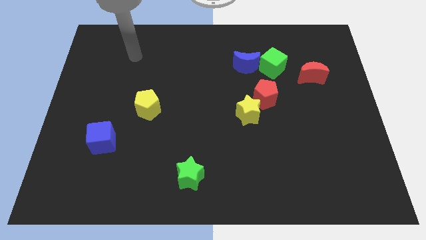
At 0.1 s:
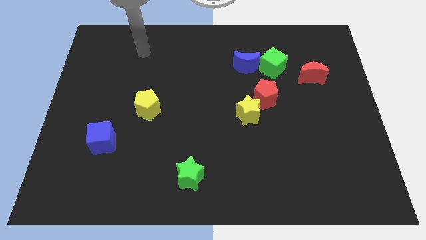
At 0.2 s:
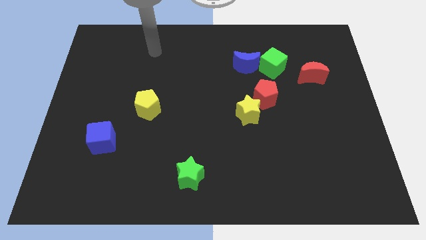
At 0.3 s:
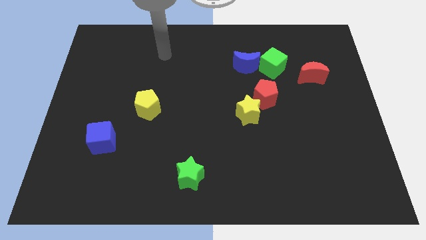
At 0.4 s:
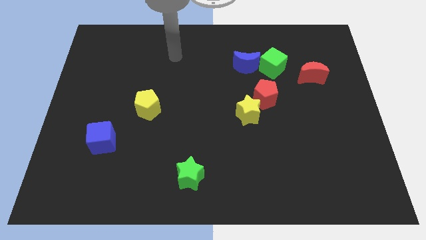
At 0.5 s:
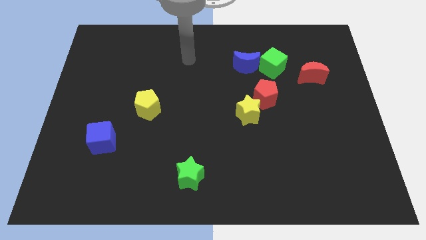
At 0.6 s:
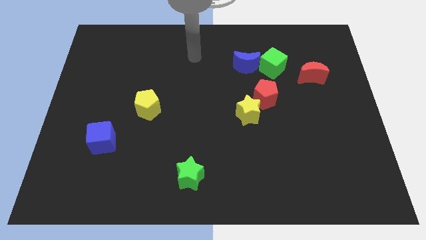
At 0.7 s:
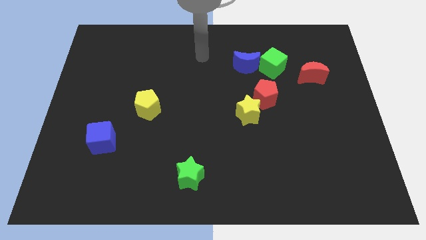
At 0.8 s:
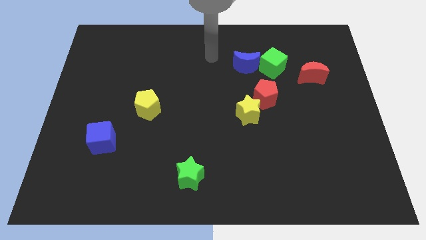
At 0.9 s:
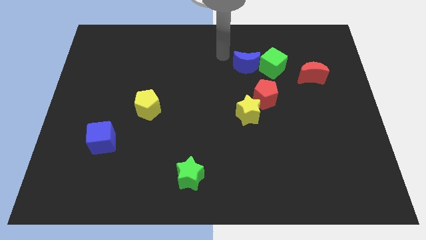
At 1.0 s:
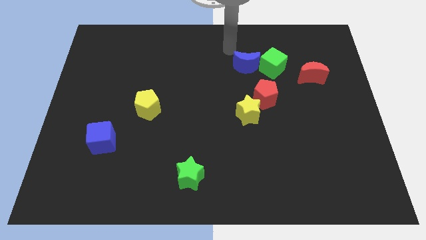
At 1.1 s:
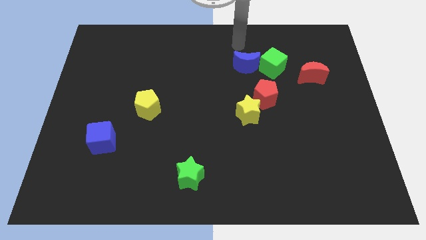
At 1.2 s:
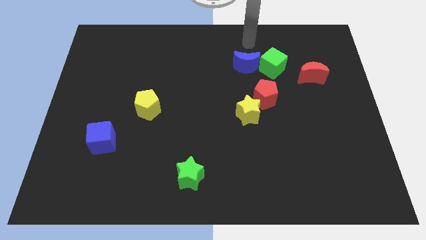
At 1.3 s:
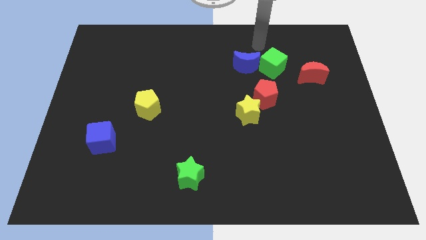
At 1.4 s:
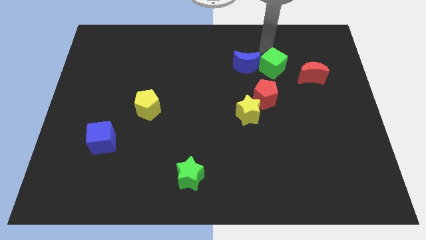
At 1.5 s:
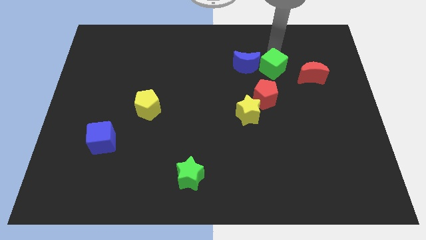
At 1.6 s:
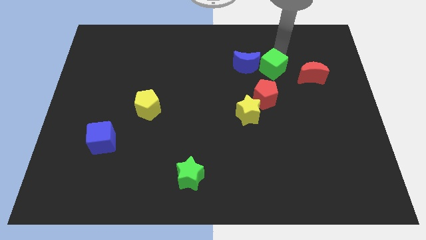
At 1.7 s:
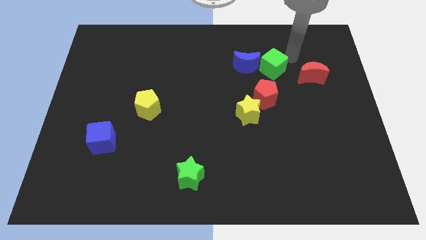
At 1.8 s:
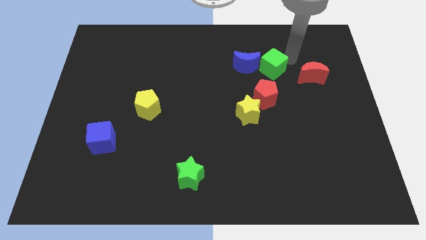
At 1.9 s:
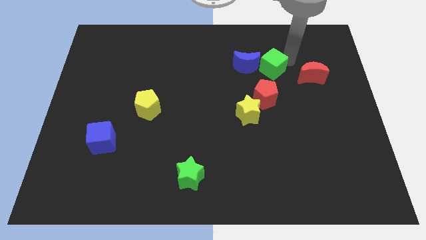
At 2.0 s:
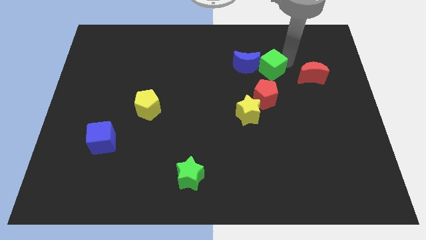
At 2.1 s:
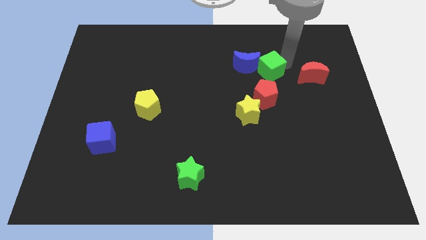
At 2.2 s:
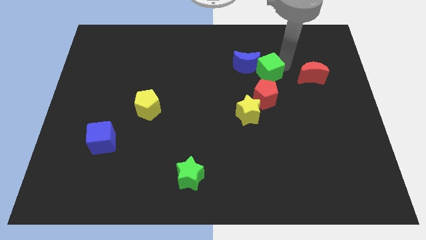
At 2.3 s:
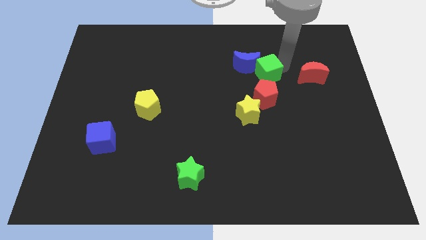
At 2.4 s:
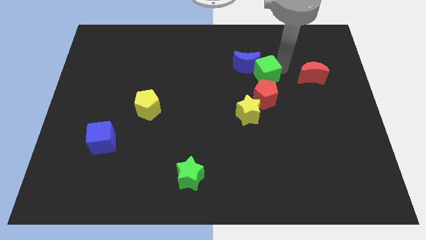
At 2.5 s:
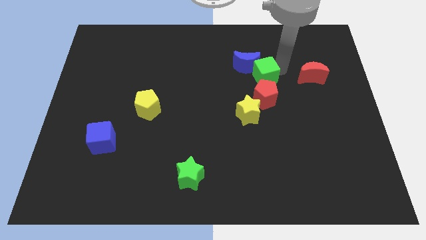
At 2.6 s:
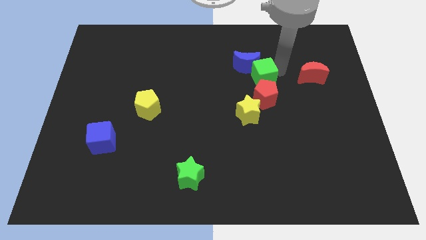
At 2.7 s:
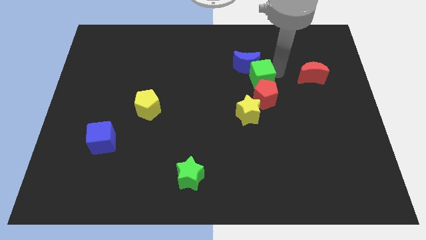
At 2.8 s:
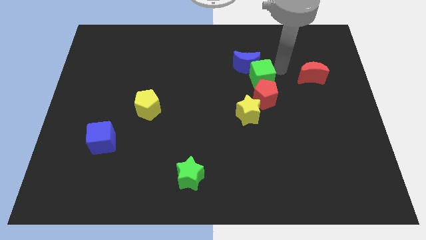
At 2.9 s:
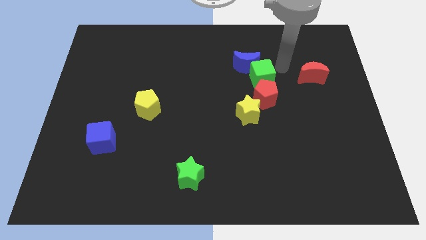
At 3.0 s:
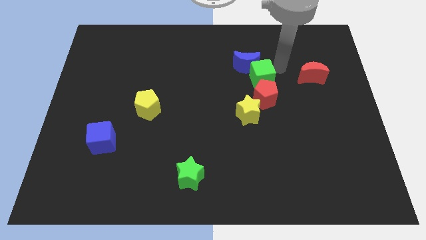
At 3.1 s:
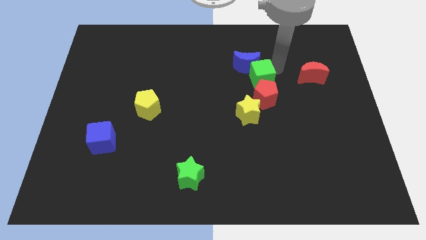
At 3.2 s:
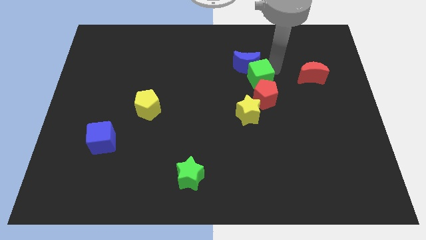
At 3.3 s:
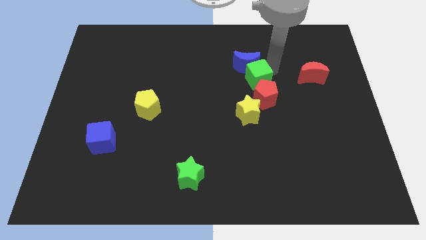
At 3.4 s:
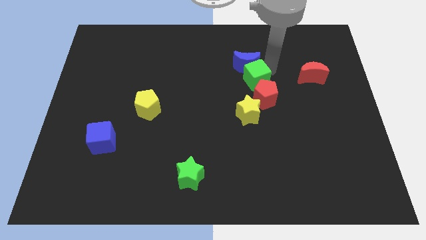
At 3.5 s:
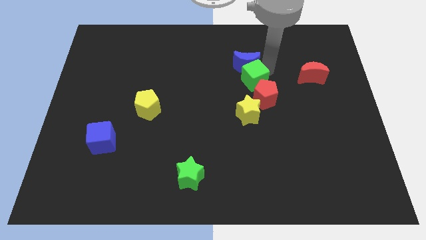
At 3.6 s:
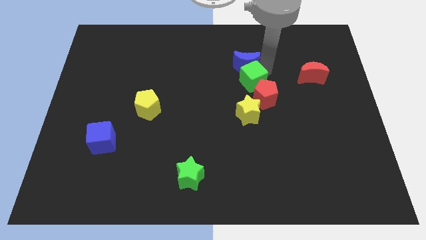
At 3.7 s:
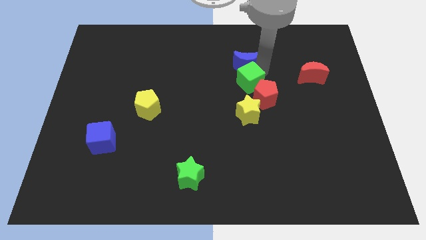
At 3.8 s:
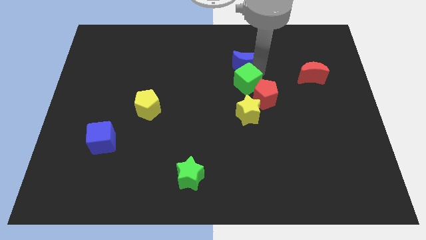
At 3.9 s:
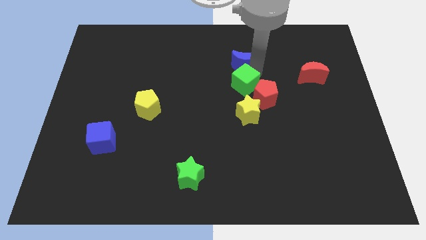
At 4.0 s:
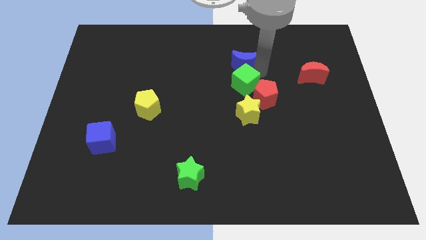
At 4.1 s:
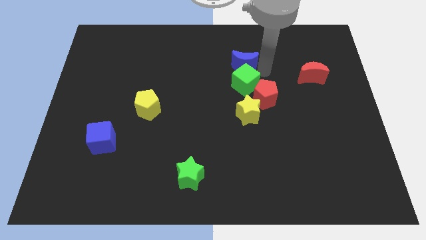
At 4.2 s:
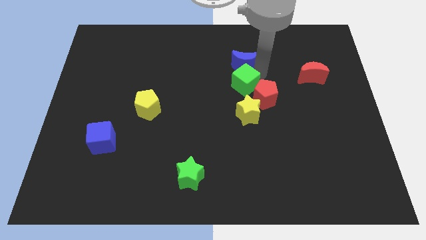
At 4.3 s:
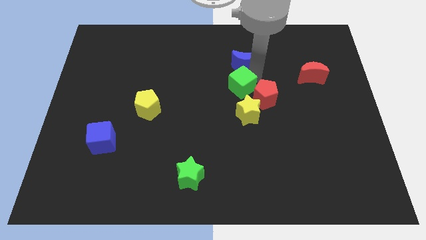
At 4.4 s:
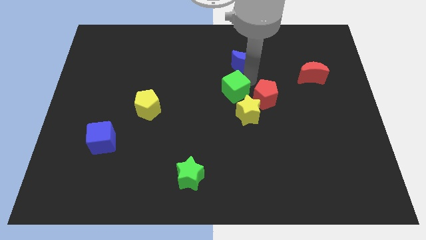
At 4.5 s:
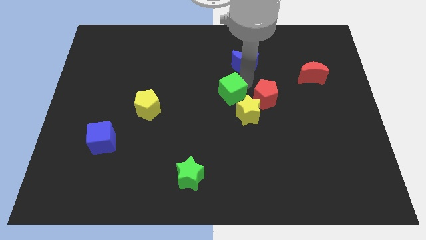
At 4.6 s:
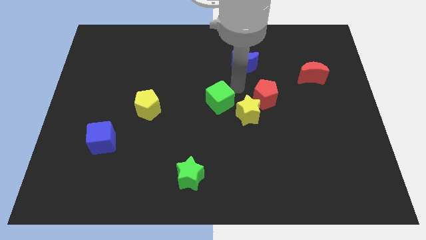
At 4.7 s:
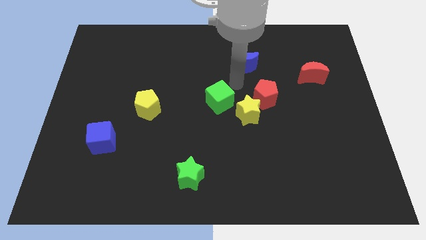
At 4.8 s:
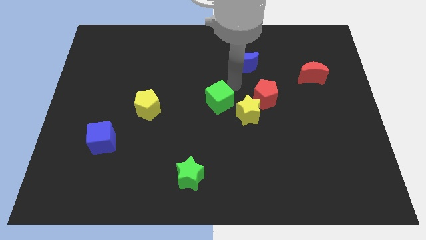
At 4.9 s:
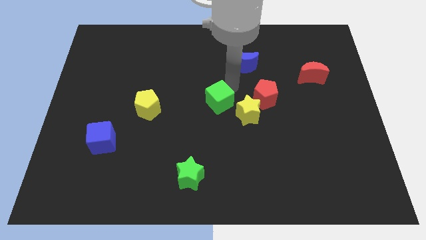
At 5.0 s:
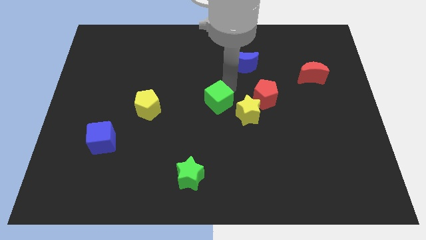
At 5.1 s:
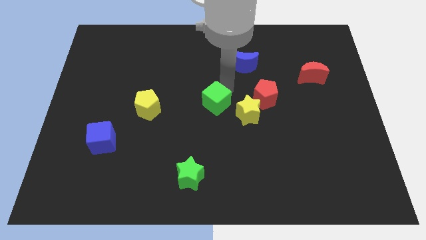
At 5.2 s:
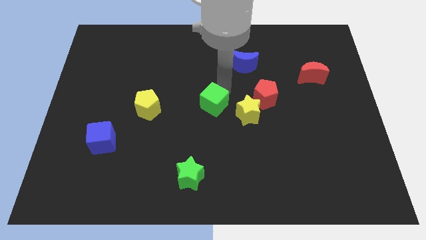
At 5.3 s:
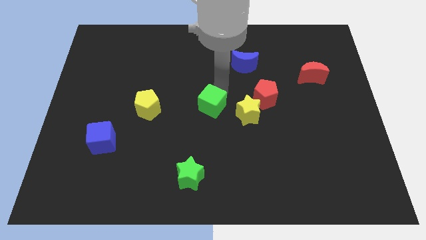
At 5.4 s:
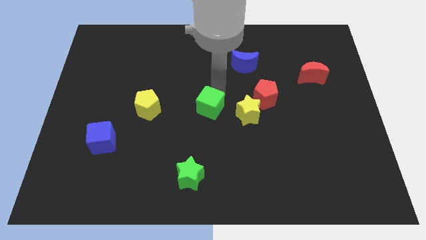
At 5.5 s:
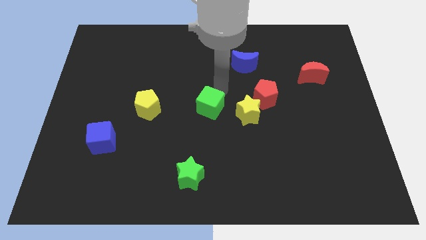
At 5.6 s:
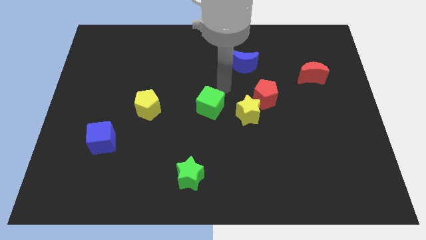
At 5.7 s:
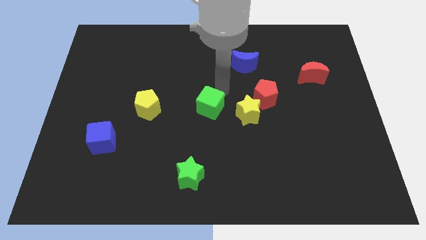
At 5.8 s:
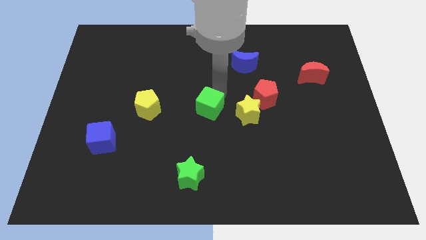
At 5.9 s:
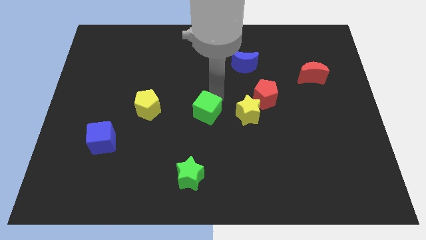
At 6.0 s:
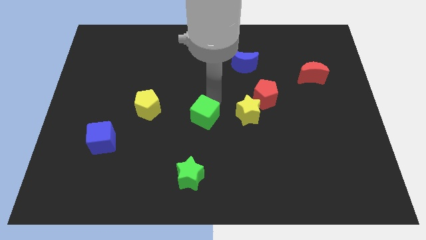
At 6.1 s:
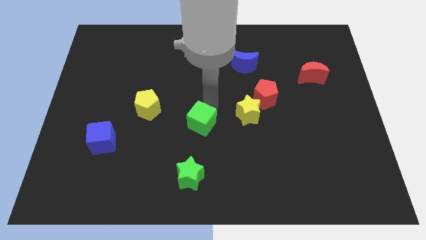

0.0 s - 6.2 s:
push the green cube to the top of the green star

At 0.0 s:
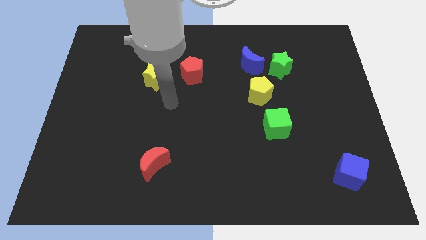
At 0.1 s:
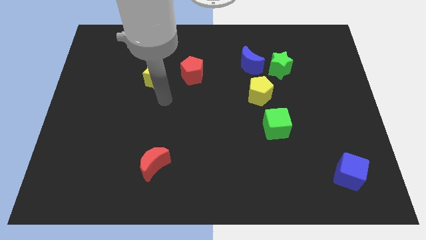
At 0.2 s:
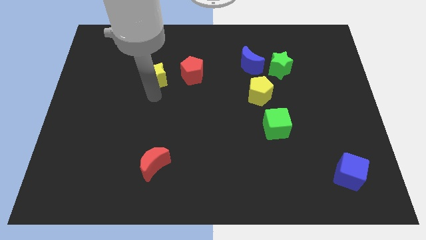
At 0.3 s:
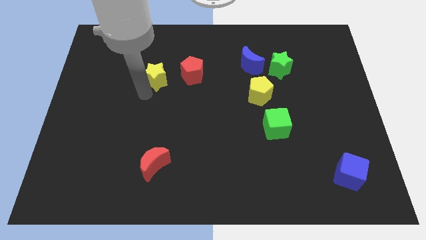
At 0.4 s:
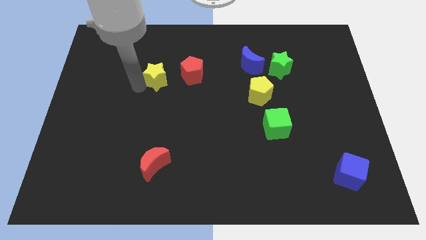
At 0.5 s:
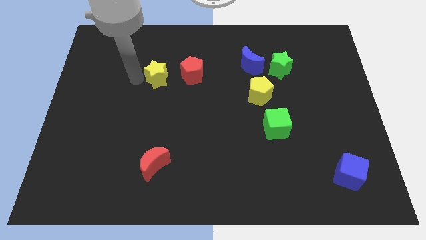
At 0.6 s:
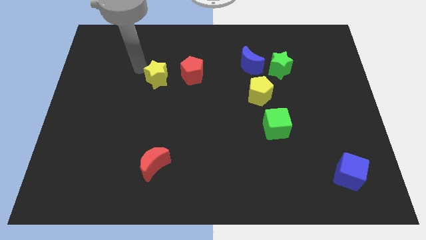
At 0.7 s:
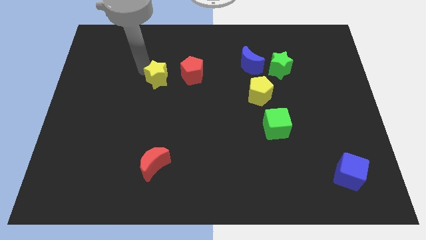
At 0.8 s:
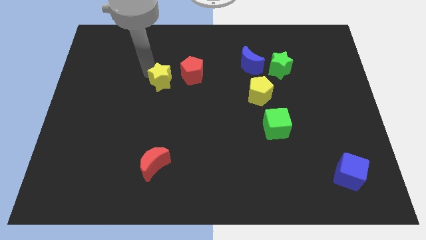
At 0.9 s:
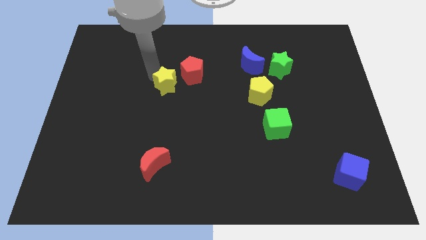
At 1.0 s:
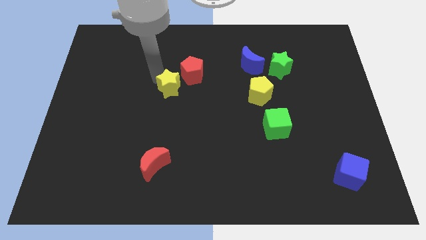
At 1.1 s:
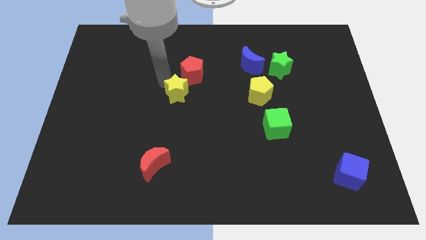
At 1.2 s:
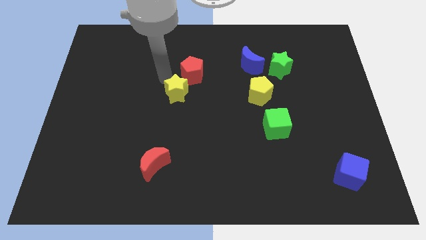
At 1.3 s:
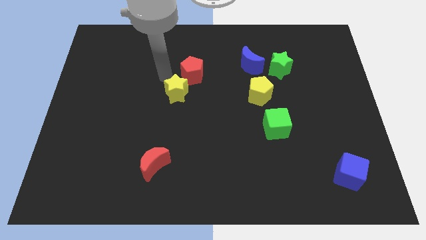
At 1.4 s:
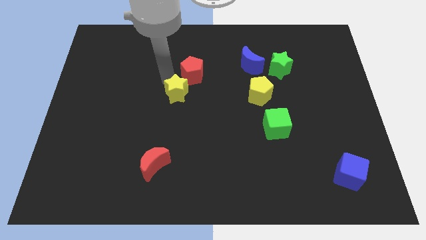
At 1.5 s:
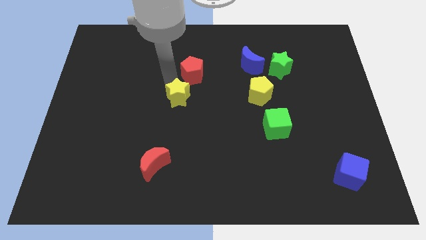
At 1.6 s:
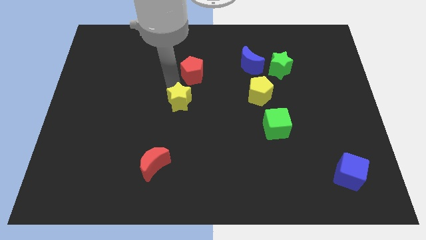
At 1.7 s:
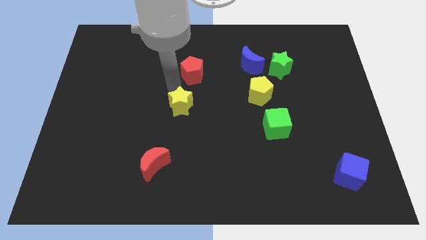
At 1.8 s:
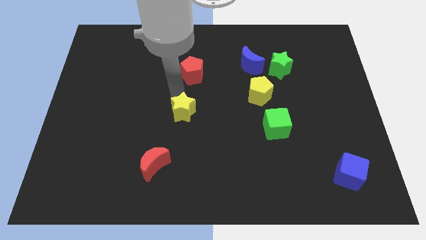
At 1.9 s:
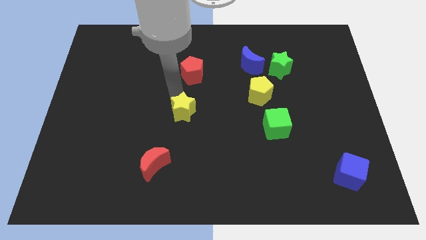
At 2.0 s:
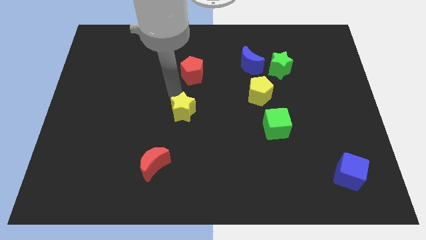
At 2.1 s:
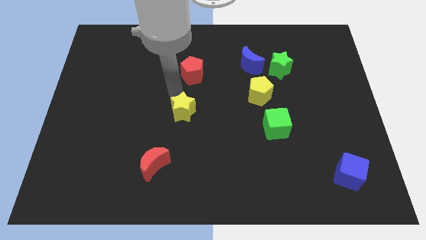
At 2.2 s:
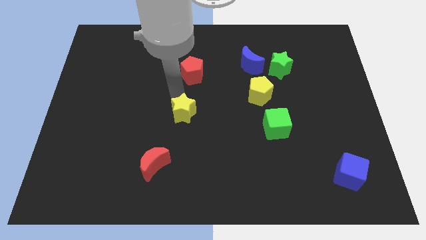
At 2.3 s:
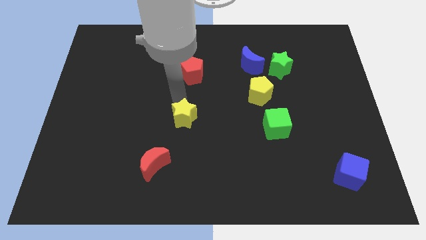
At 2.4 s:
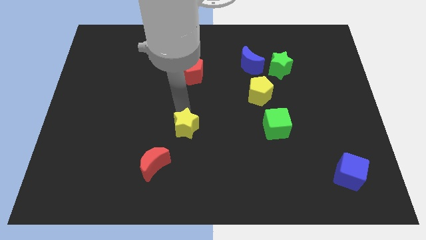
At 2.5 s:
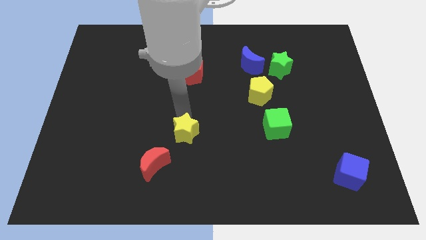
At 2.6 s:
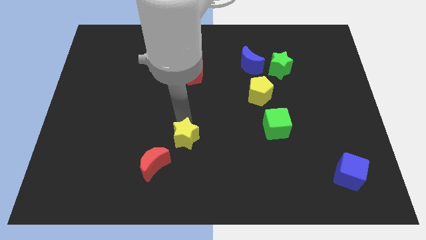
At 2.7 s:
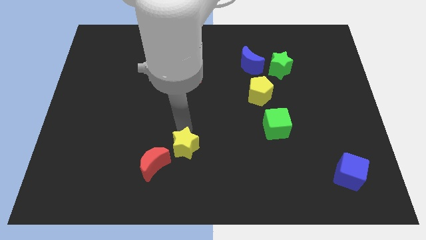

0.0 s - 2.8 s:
slide the yellow star to the right side of the red moon
